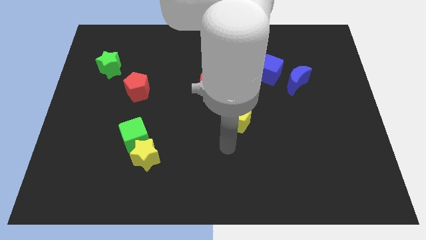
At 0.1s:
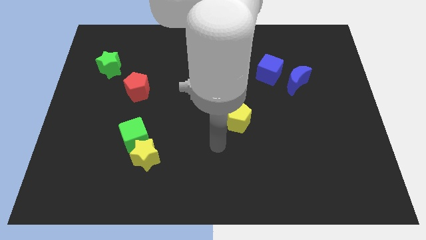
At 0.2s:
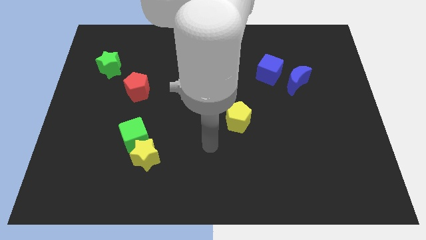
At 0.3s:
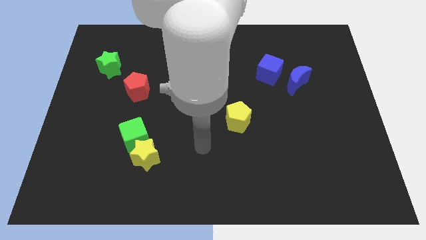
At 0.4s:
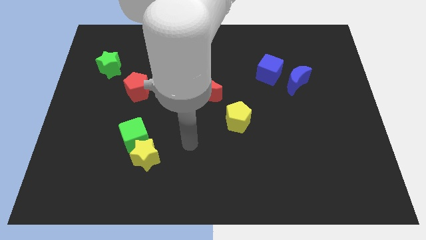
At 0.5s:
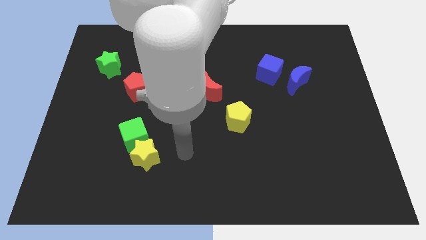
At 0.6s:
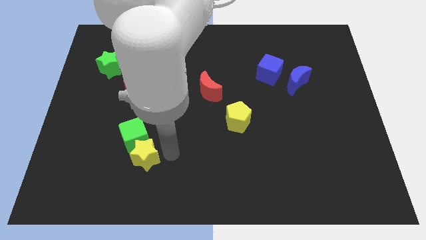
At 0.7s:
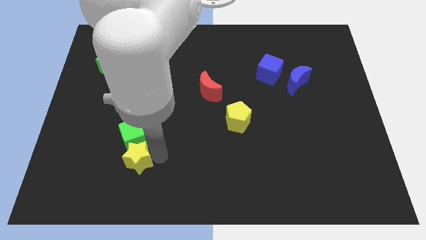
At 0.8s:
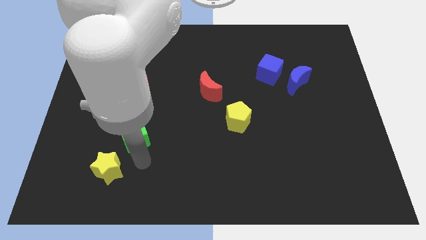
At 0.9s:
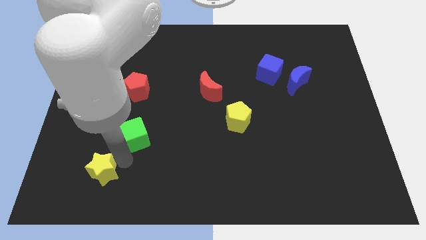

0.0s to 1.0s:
separate the green cube from the yellow star

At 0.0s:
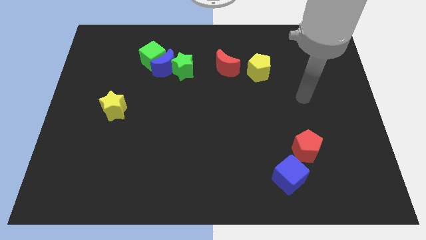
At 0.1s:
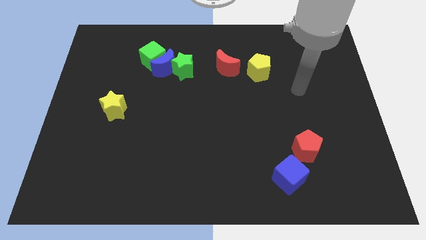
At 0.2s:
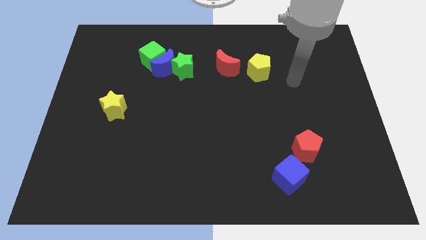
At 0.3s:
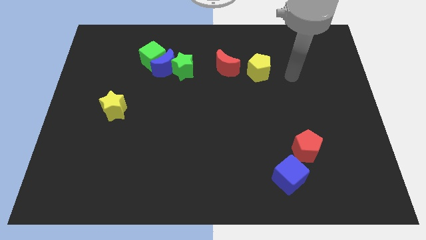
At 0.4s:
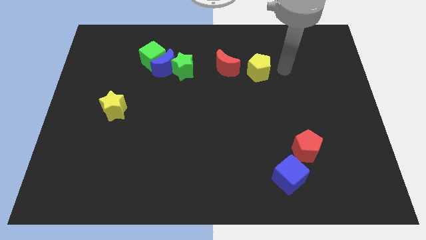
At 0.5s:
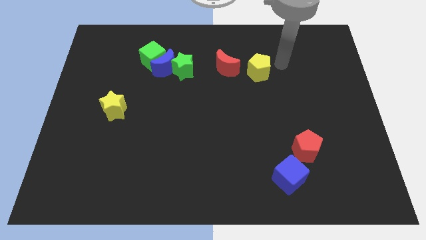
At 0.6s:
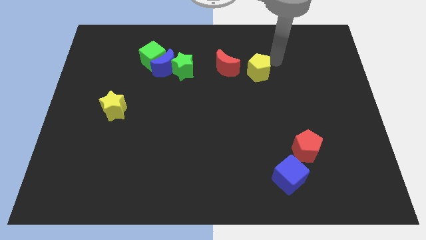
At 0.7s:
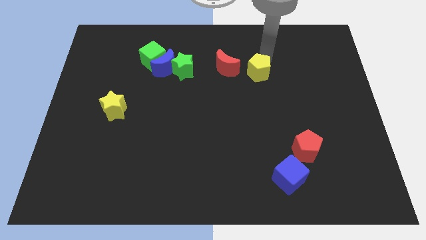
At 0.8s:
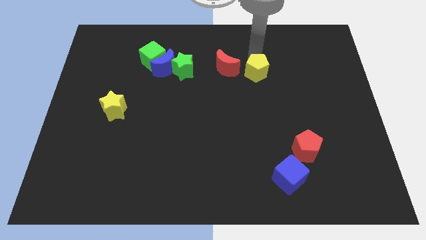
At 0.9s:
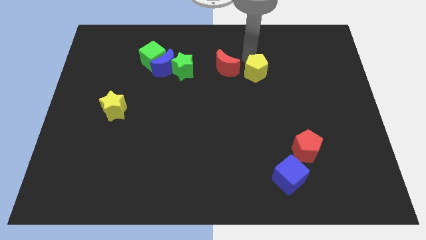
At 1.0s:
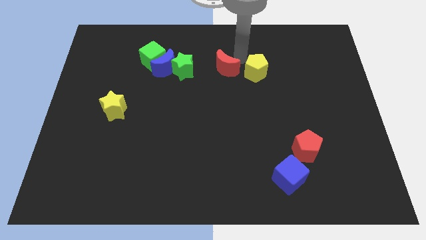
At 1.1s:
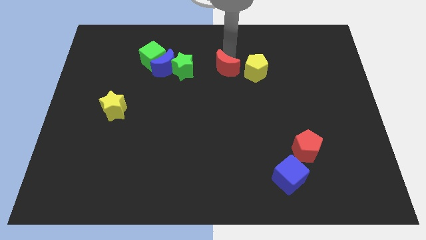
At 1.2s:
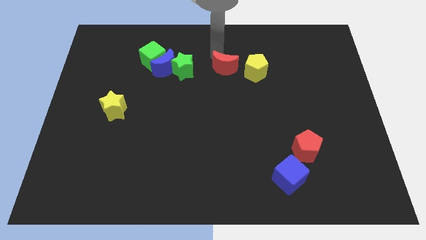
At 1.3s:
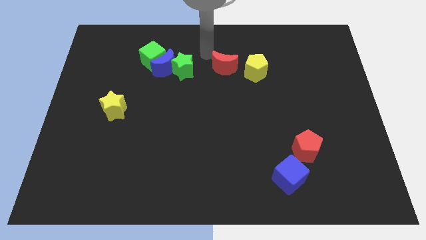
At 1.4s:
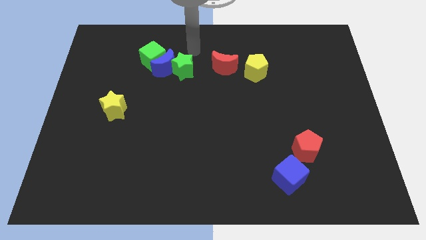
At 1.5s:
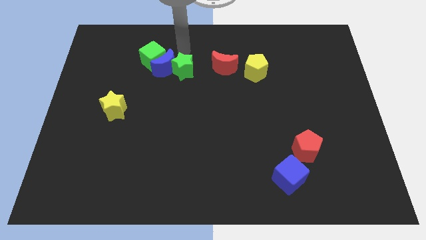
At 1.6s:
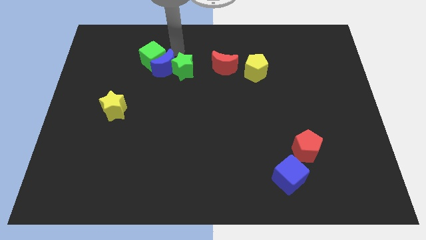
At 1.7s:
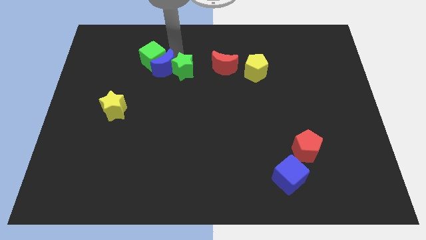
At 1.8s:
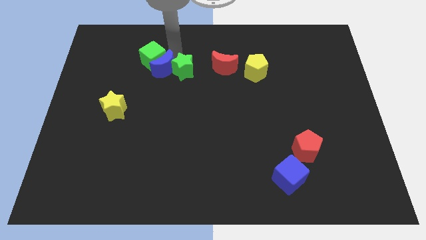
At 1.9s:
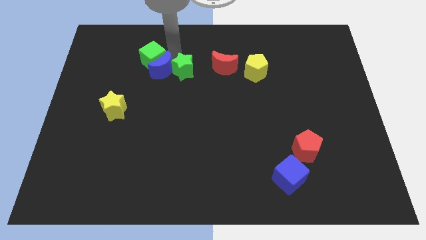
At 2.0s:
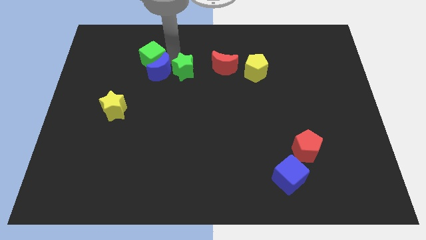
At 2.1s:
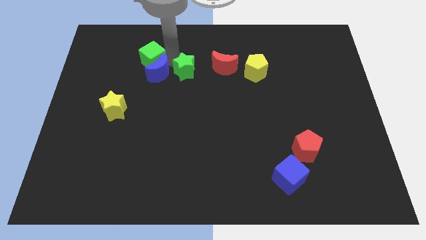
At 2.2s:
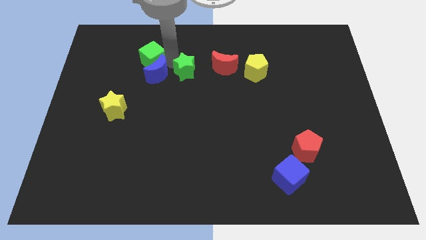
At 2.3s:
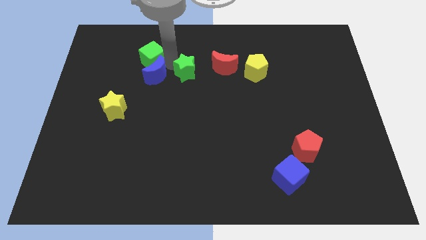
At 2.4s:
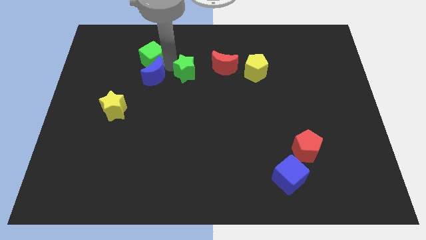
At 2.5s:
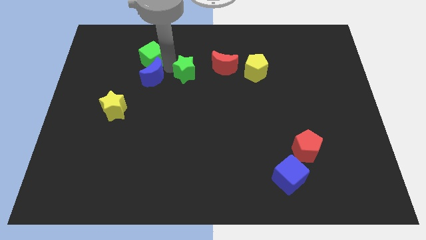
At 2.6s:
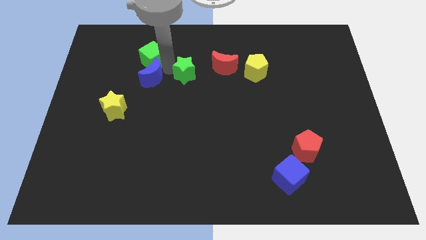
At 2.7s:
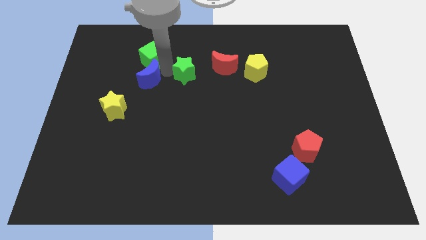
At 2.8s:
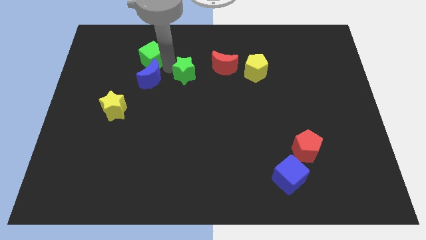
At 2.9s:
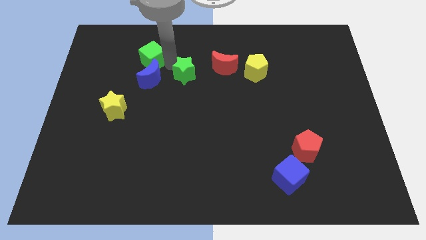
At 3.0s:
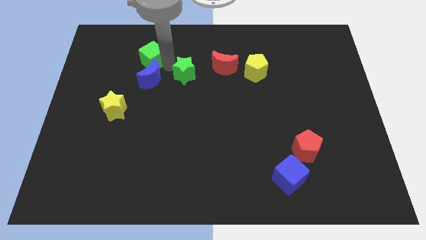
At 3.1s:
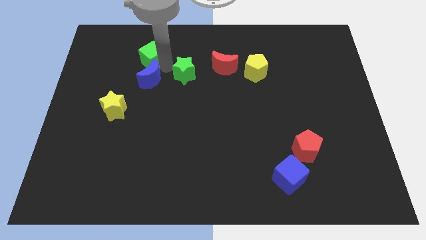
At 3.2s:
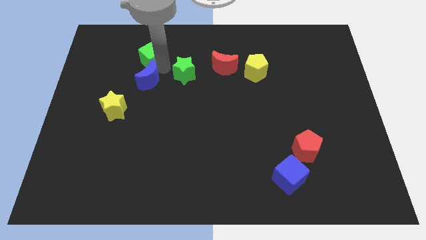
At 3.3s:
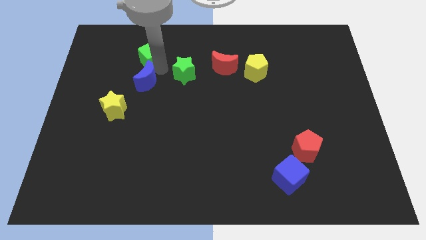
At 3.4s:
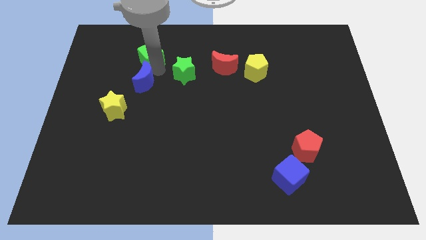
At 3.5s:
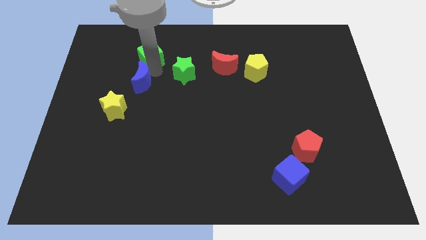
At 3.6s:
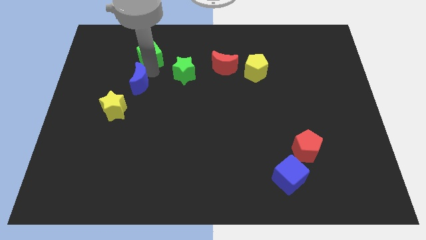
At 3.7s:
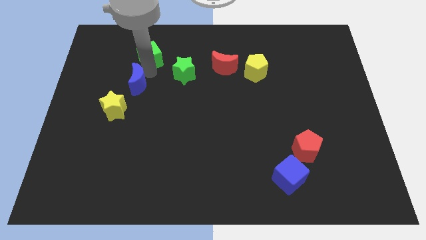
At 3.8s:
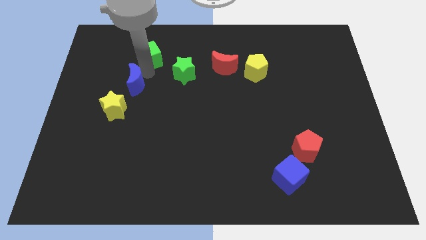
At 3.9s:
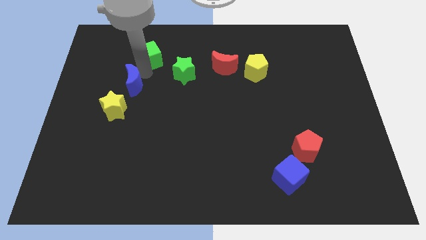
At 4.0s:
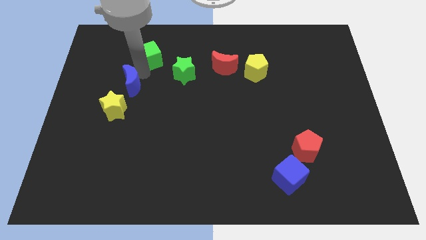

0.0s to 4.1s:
move the blue moon away from the green star and green cube

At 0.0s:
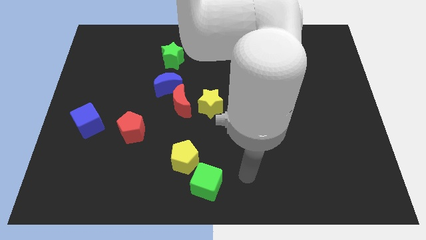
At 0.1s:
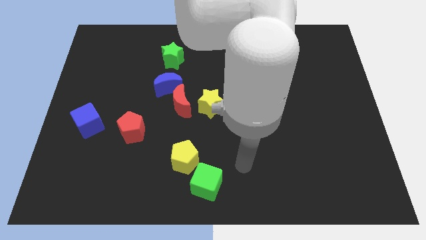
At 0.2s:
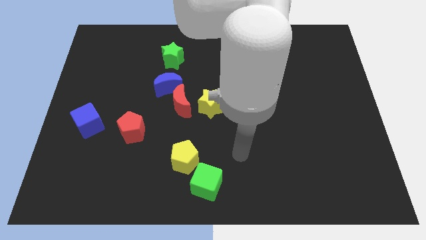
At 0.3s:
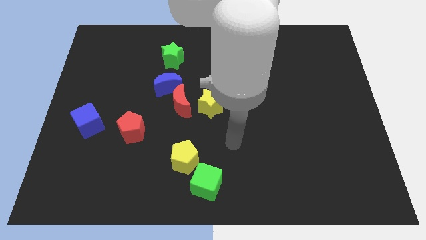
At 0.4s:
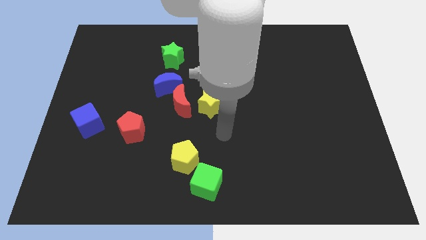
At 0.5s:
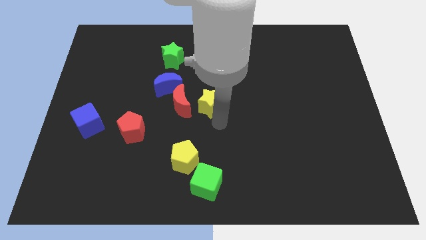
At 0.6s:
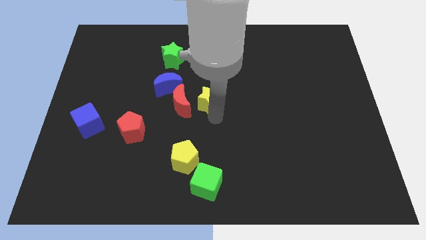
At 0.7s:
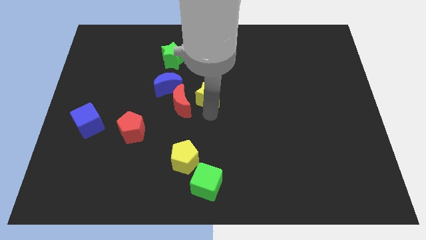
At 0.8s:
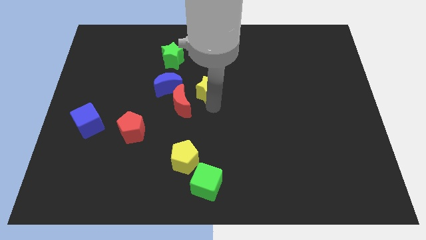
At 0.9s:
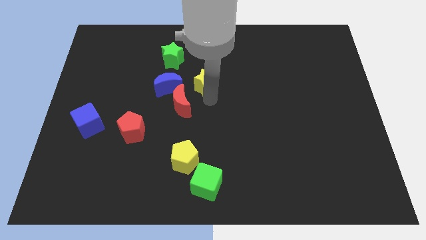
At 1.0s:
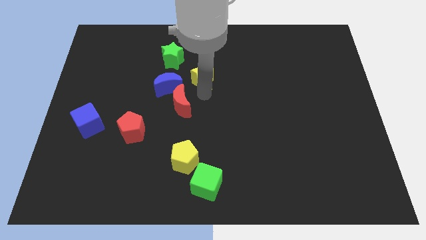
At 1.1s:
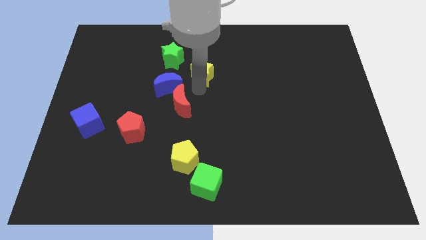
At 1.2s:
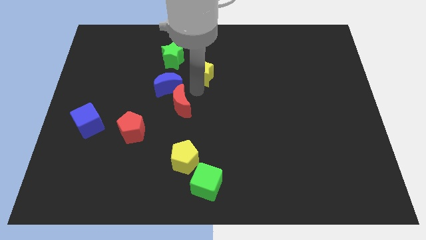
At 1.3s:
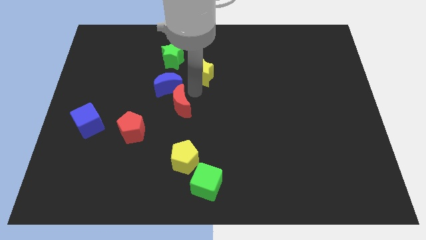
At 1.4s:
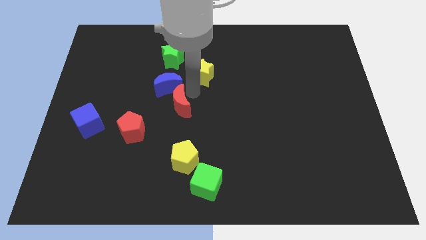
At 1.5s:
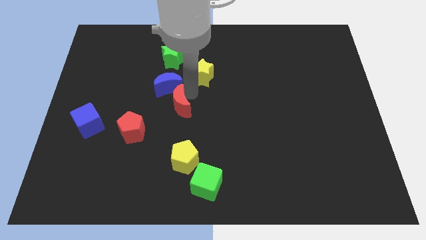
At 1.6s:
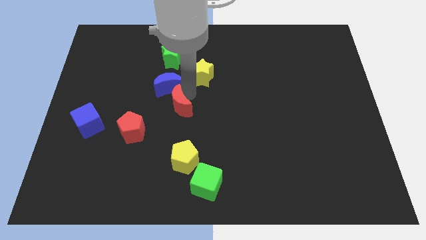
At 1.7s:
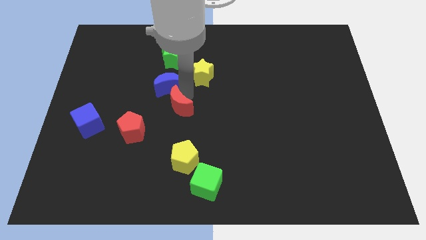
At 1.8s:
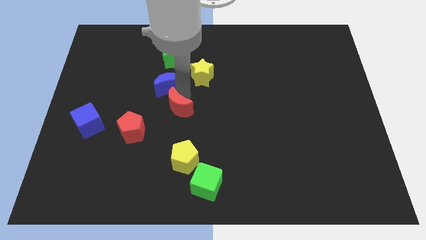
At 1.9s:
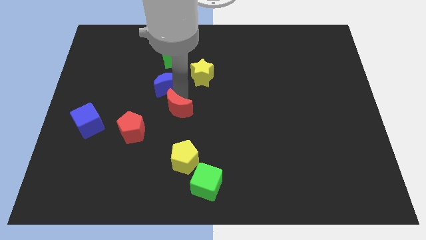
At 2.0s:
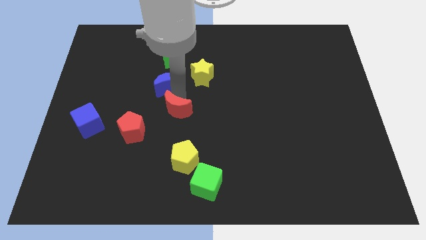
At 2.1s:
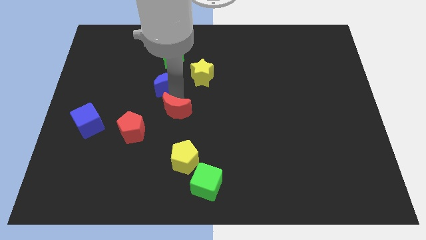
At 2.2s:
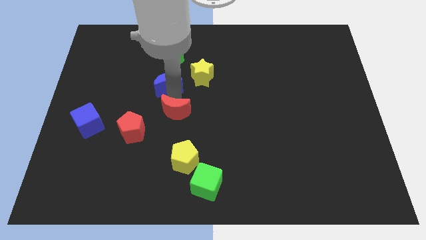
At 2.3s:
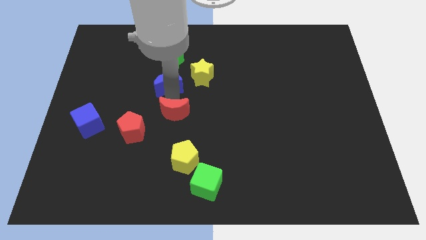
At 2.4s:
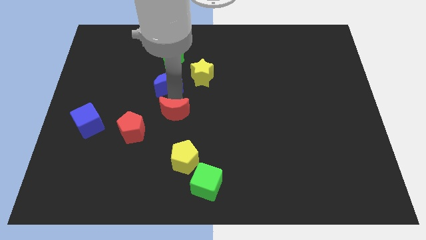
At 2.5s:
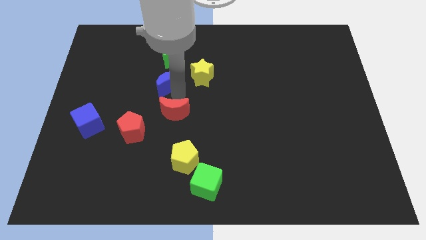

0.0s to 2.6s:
pull the red moon apart from the blue moon and yellow star

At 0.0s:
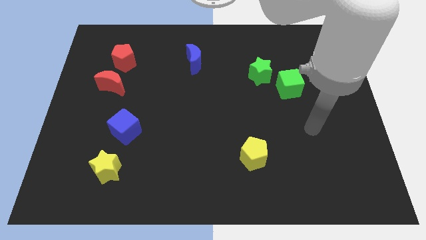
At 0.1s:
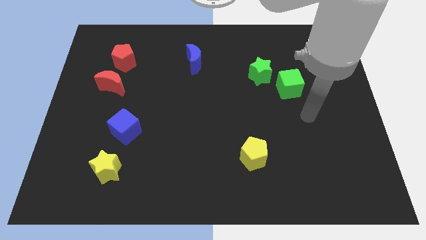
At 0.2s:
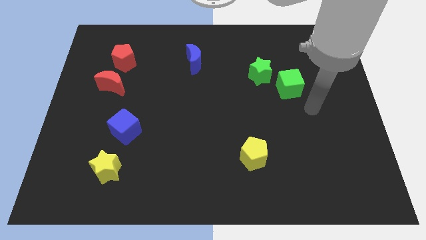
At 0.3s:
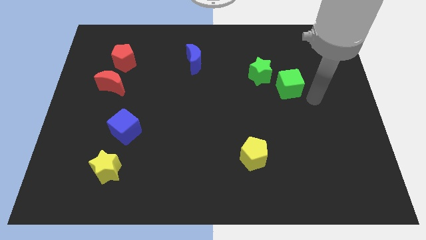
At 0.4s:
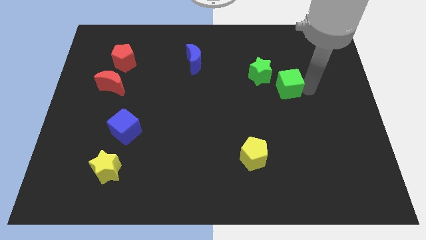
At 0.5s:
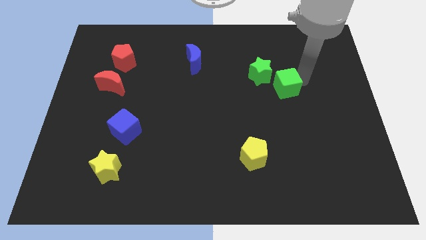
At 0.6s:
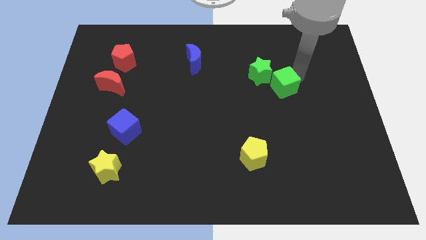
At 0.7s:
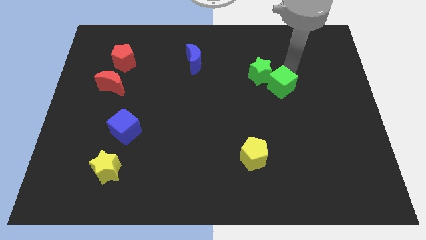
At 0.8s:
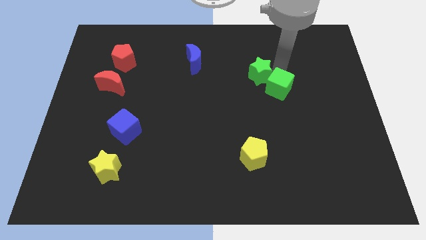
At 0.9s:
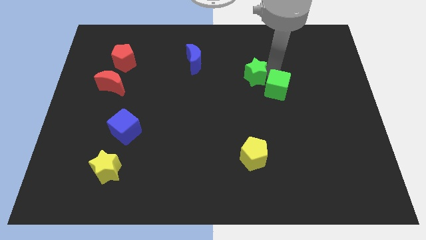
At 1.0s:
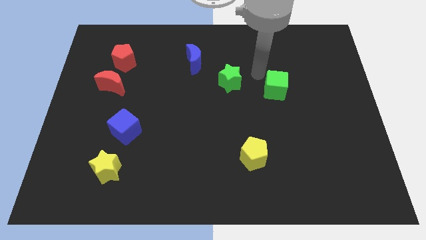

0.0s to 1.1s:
separate the green cube from the green star

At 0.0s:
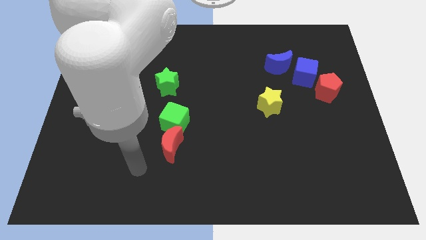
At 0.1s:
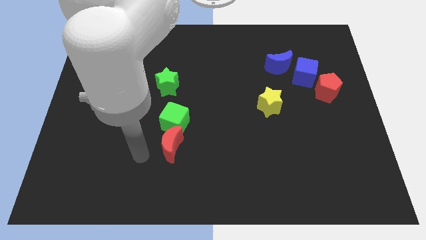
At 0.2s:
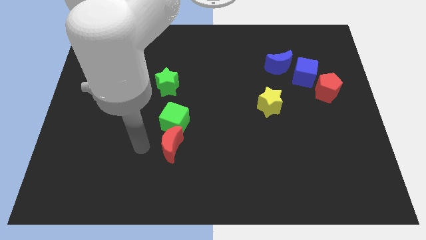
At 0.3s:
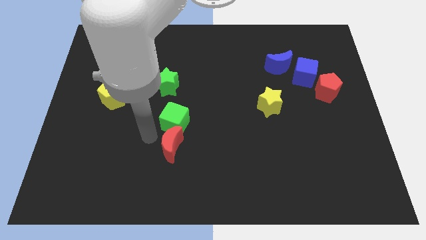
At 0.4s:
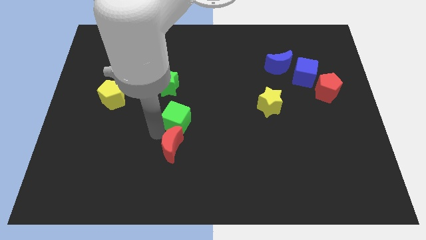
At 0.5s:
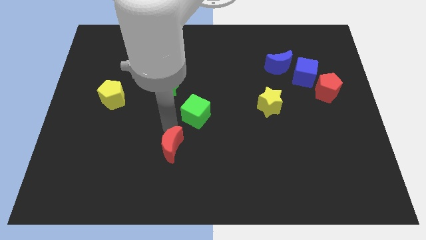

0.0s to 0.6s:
pull the red moon apart from the green cube
